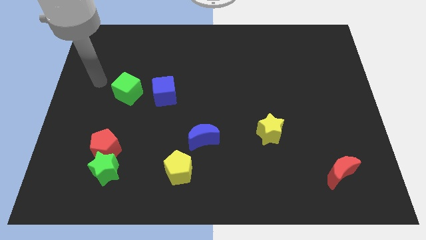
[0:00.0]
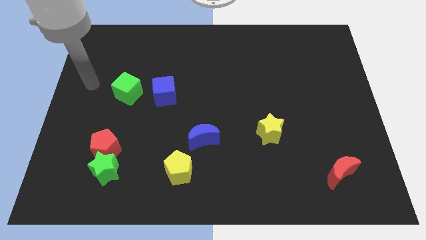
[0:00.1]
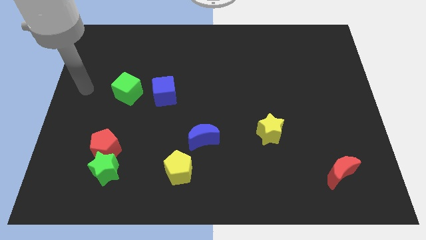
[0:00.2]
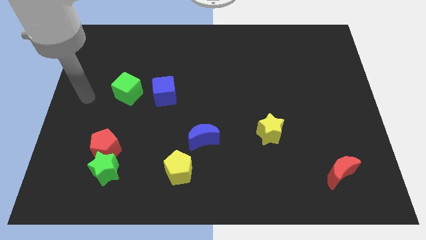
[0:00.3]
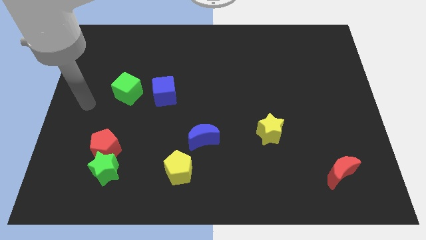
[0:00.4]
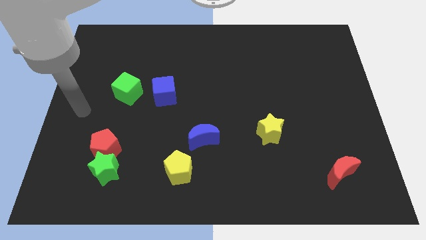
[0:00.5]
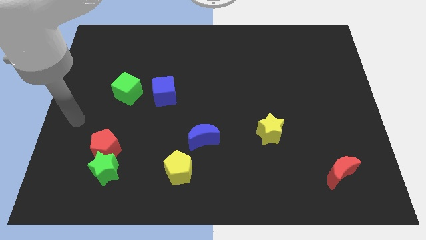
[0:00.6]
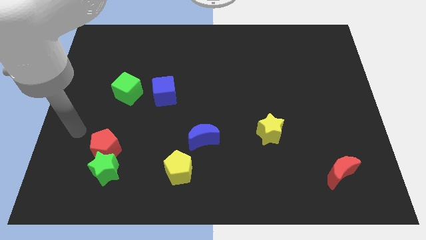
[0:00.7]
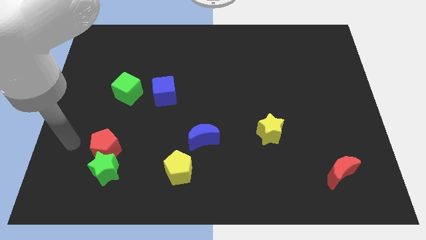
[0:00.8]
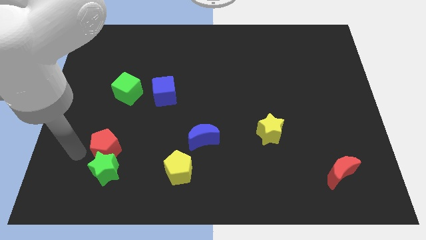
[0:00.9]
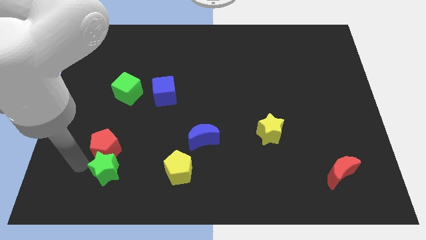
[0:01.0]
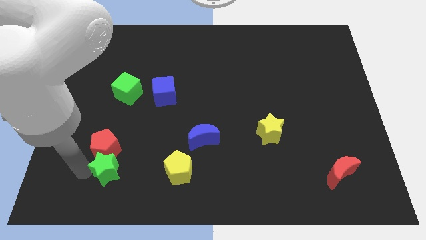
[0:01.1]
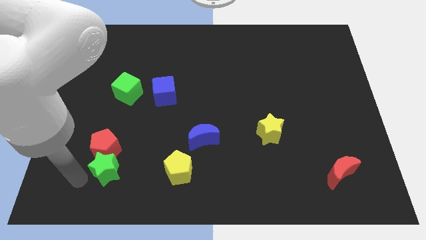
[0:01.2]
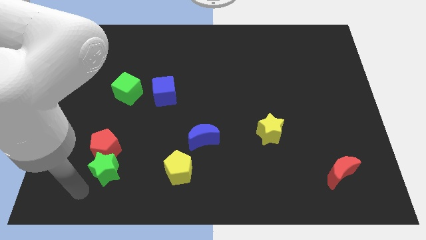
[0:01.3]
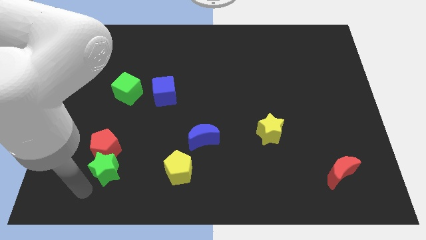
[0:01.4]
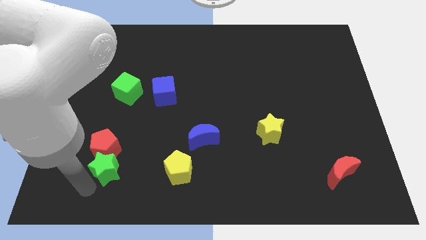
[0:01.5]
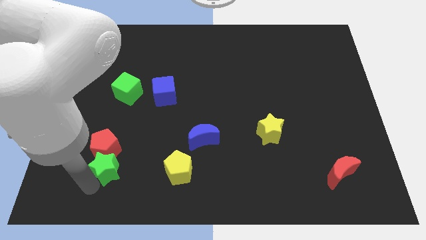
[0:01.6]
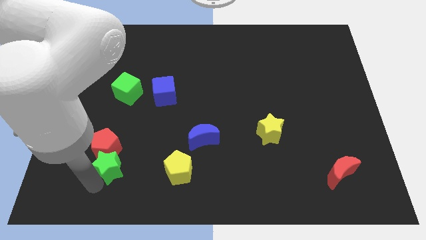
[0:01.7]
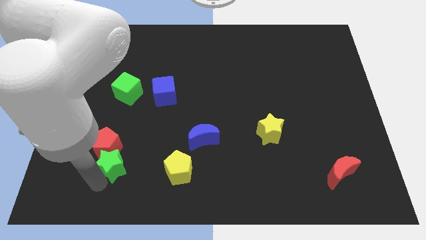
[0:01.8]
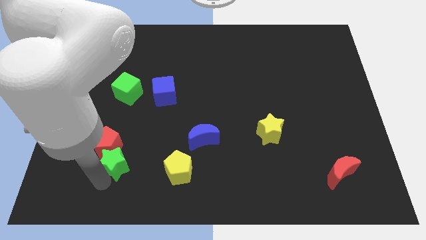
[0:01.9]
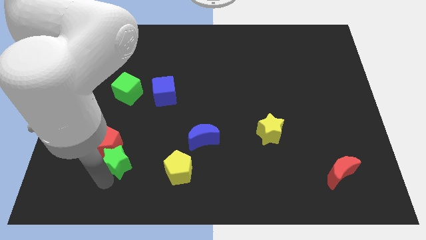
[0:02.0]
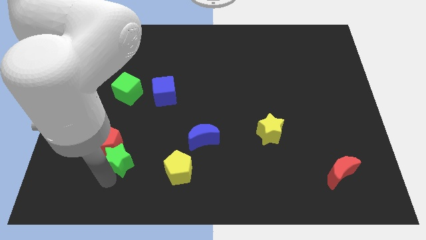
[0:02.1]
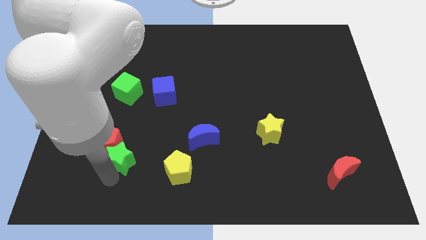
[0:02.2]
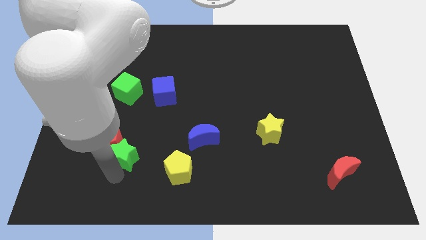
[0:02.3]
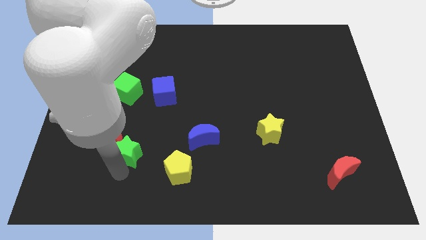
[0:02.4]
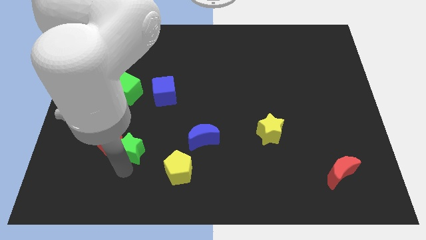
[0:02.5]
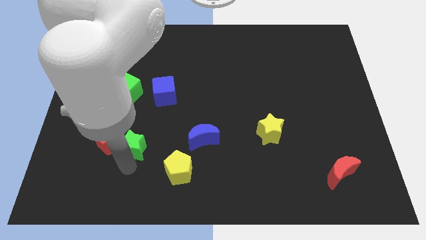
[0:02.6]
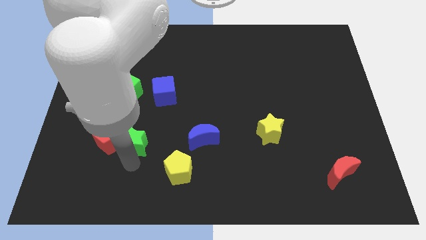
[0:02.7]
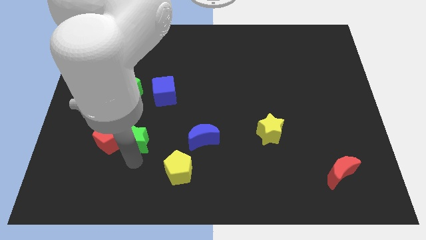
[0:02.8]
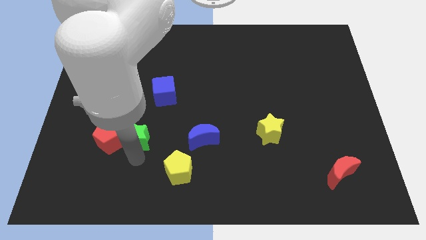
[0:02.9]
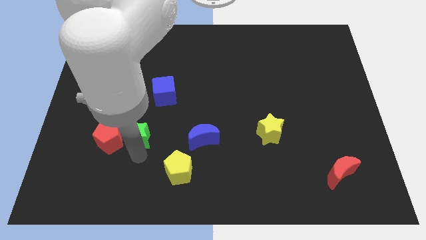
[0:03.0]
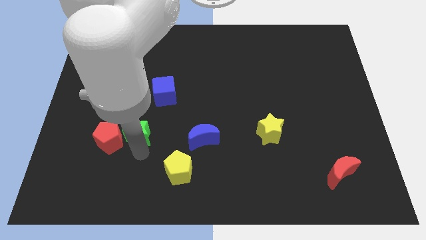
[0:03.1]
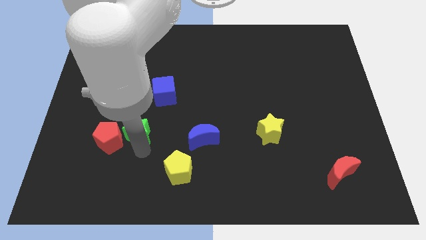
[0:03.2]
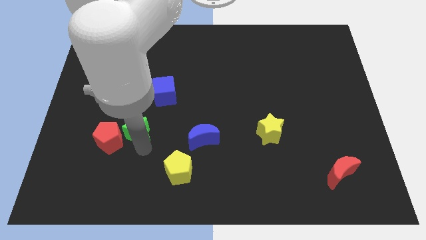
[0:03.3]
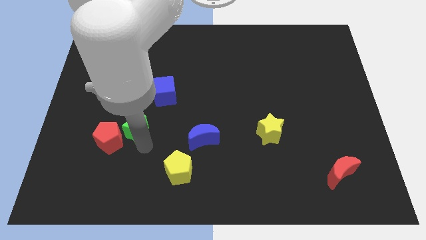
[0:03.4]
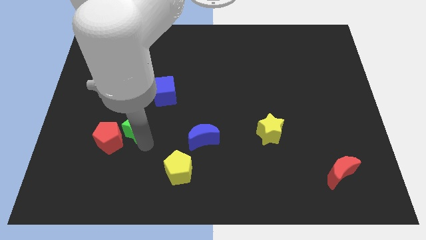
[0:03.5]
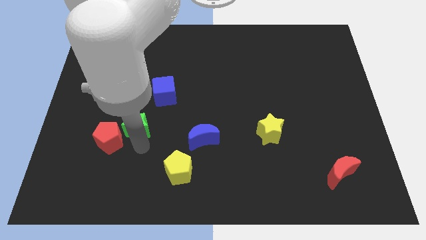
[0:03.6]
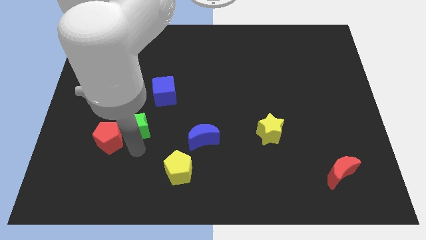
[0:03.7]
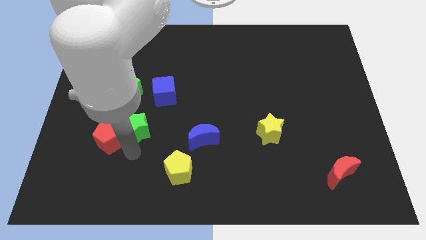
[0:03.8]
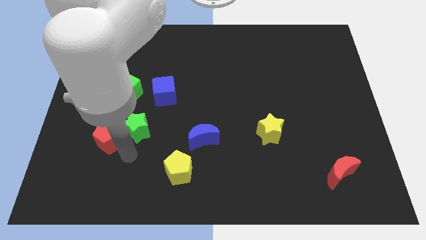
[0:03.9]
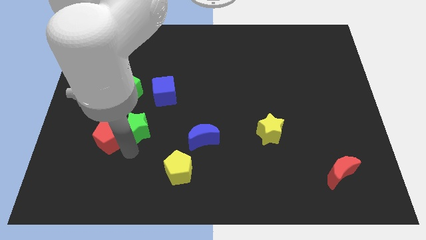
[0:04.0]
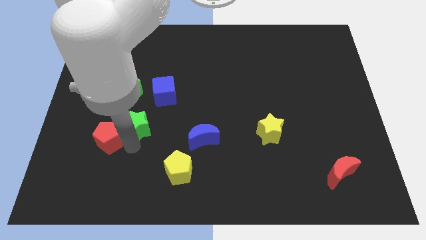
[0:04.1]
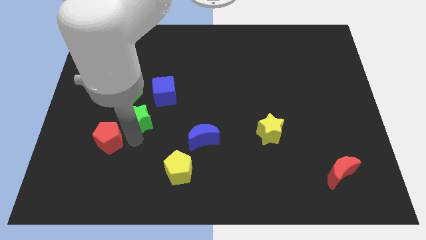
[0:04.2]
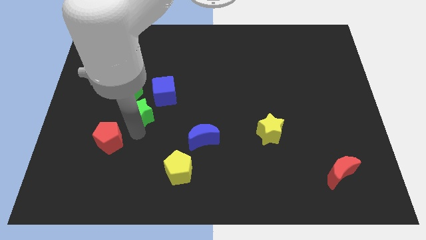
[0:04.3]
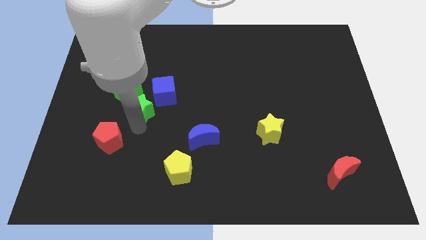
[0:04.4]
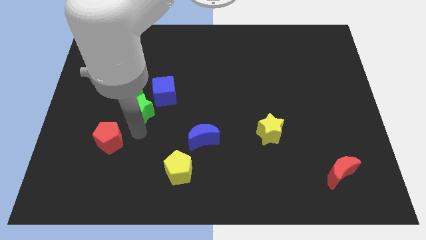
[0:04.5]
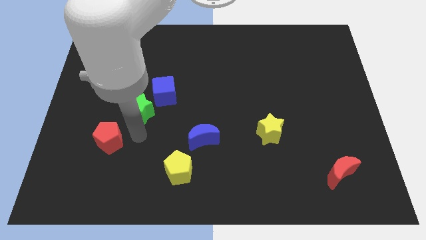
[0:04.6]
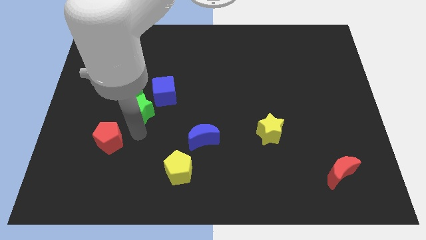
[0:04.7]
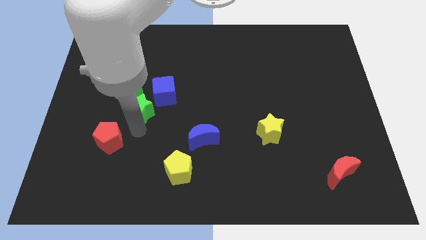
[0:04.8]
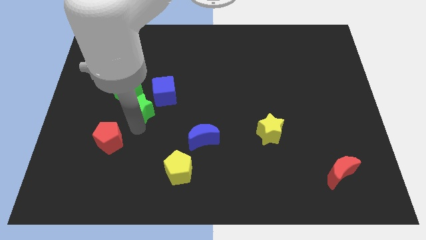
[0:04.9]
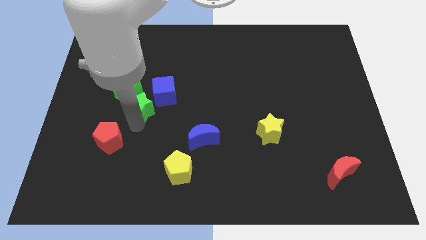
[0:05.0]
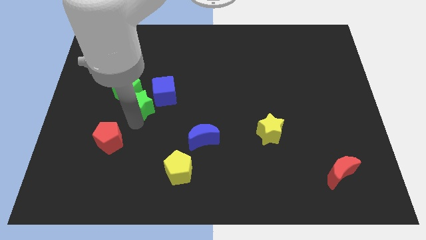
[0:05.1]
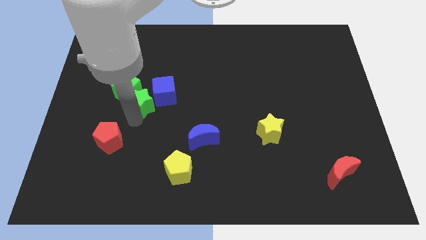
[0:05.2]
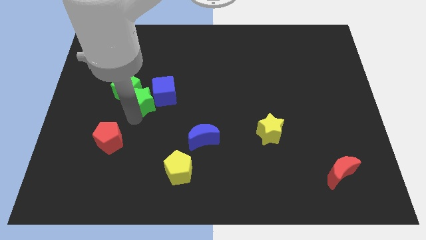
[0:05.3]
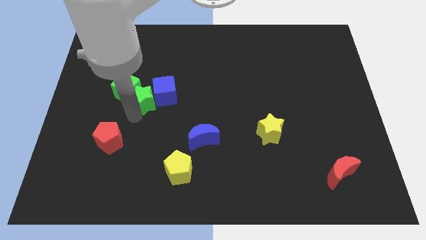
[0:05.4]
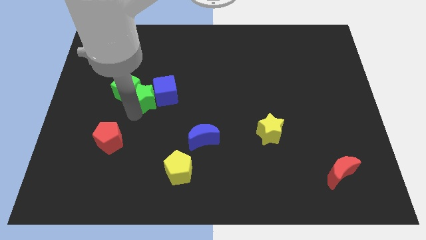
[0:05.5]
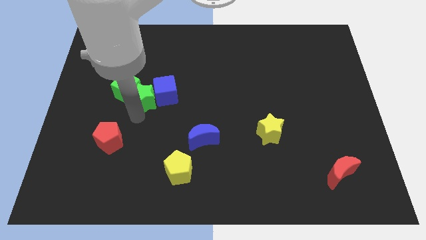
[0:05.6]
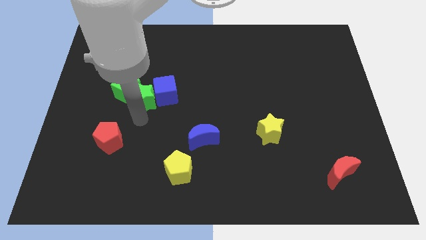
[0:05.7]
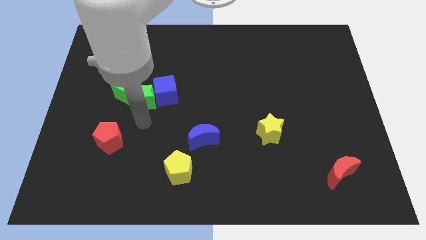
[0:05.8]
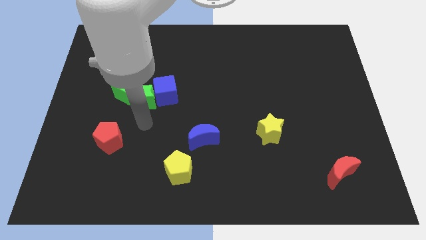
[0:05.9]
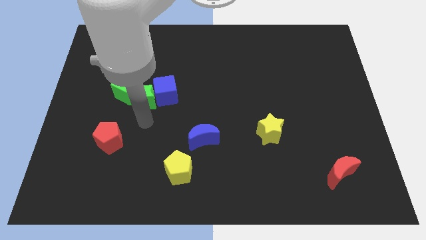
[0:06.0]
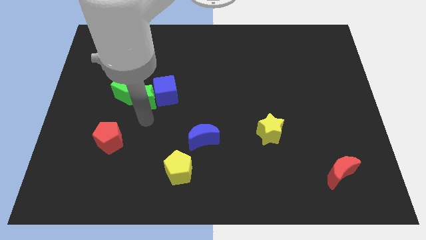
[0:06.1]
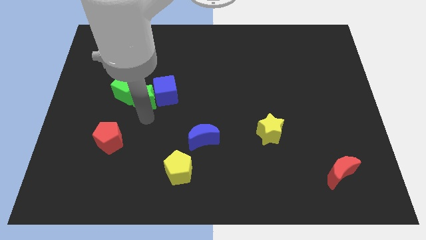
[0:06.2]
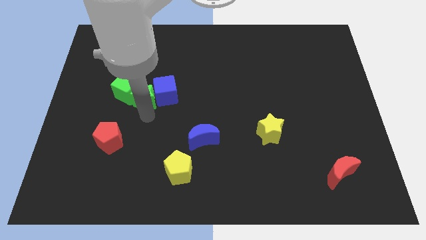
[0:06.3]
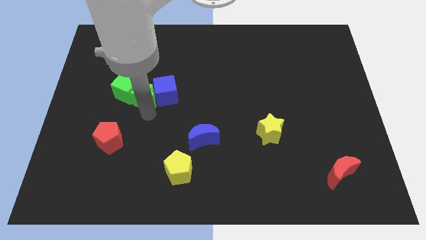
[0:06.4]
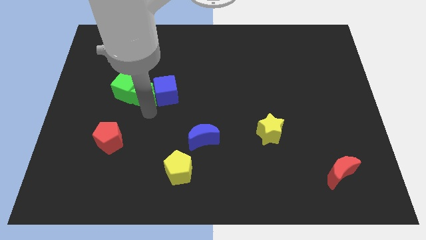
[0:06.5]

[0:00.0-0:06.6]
move the green star to the top left side of the blue cube
